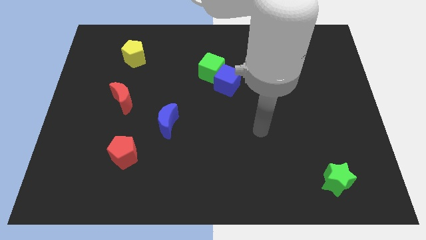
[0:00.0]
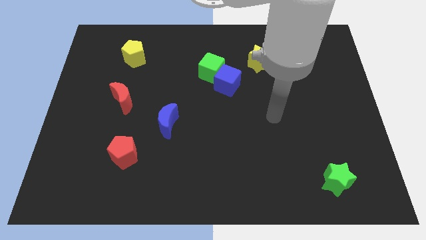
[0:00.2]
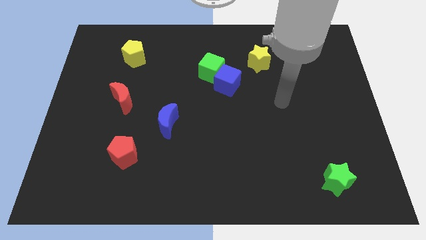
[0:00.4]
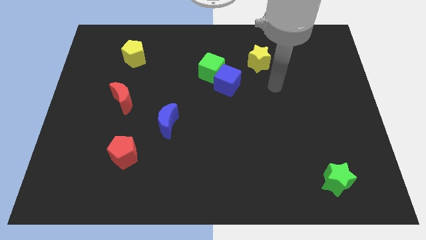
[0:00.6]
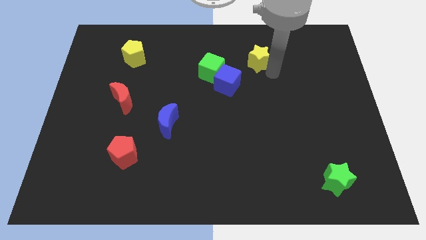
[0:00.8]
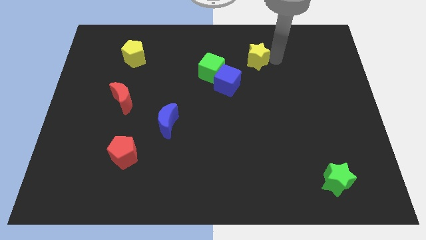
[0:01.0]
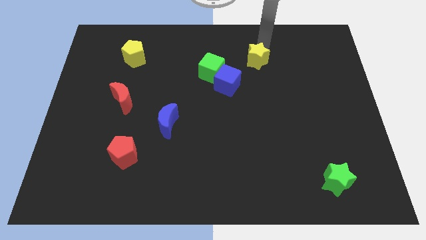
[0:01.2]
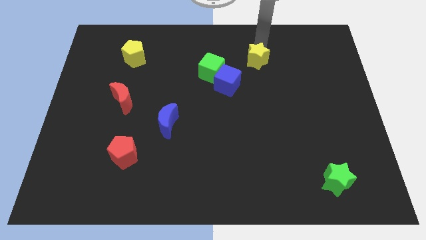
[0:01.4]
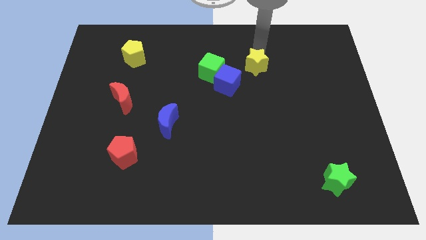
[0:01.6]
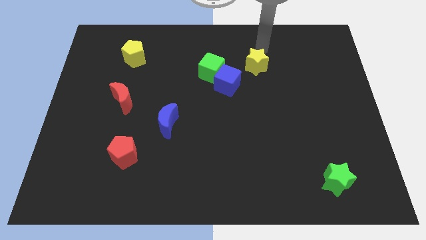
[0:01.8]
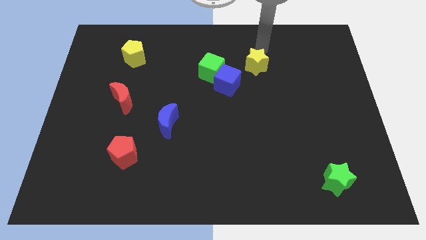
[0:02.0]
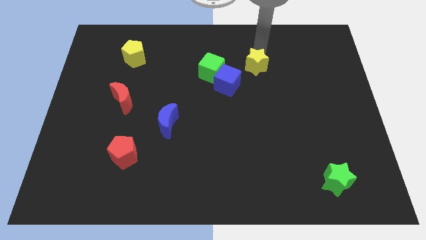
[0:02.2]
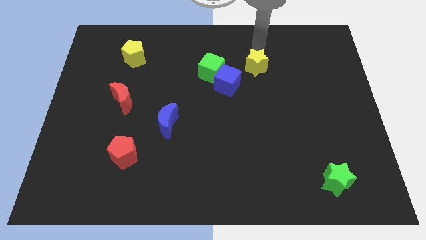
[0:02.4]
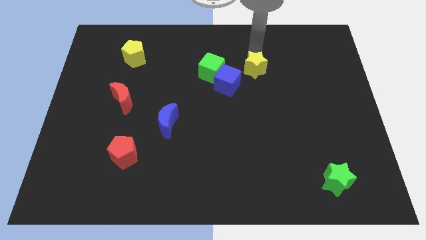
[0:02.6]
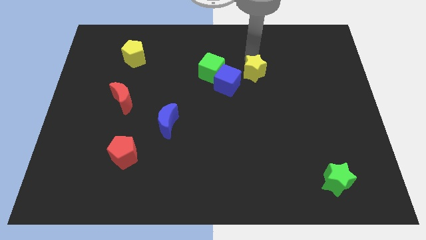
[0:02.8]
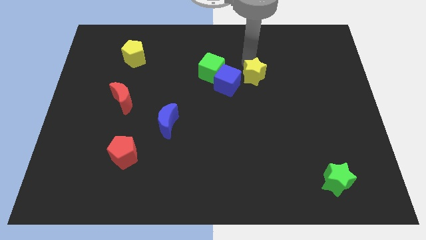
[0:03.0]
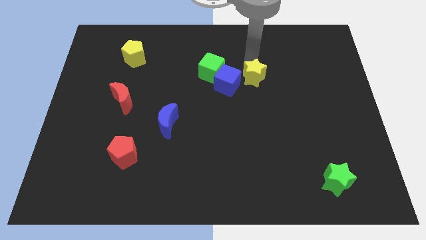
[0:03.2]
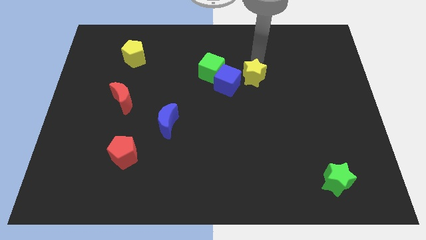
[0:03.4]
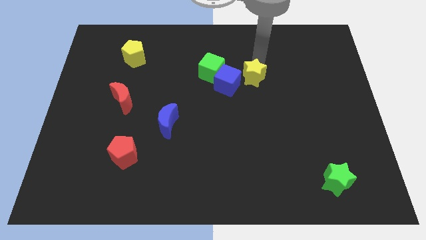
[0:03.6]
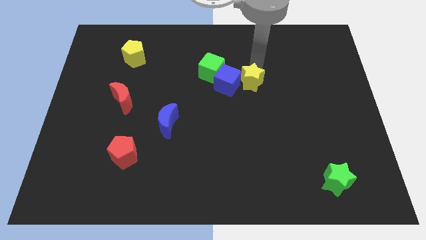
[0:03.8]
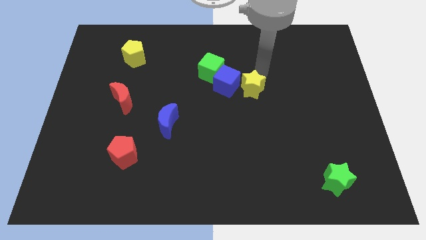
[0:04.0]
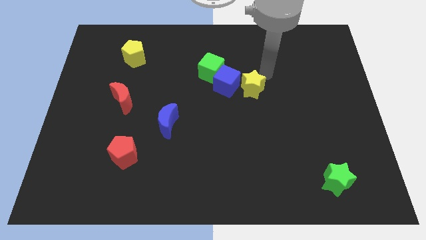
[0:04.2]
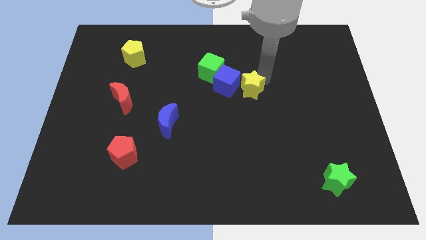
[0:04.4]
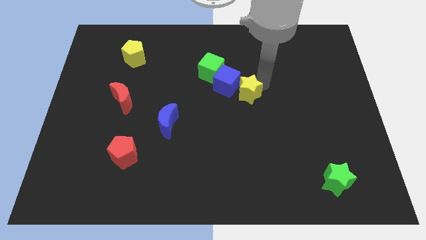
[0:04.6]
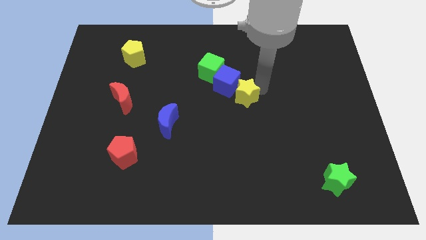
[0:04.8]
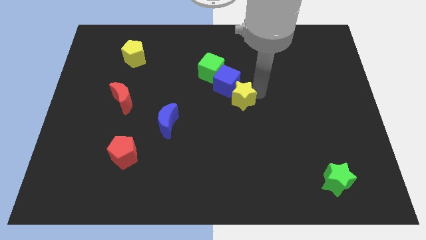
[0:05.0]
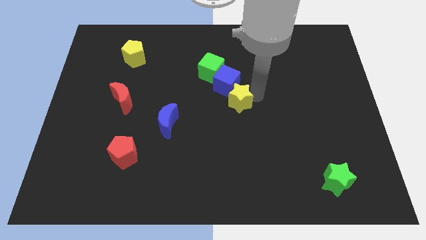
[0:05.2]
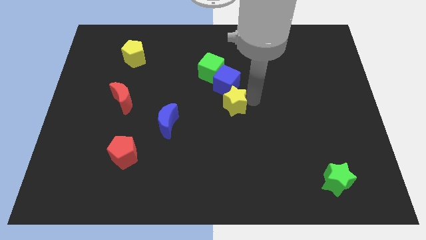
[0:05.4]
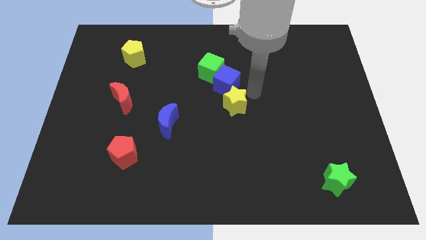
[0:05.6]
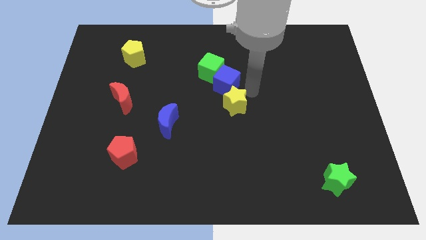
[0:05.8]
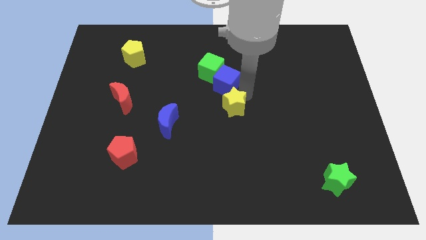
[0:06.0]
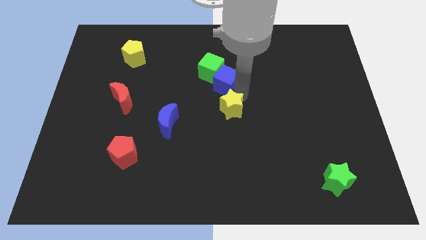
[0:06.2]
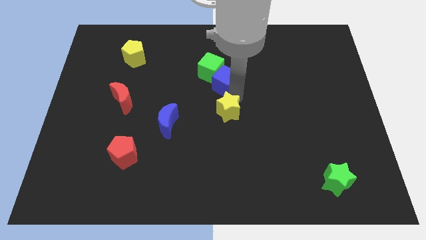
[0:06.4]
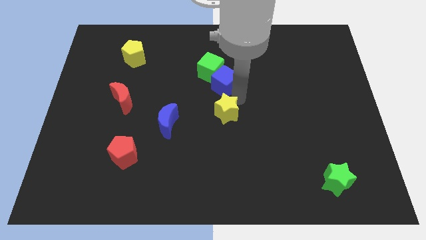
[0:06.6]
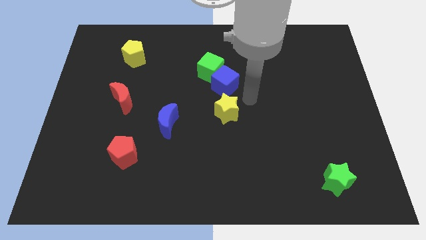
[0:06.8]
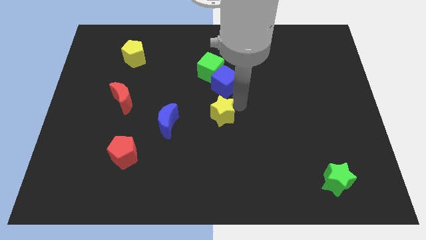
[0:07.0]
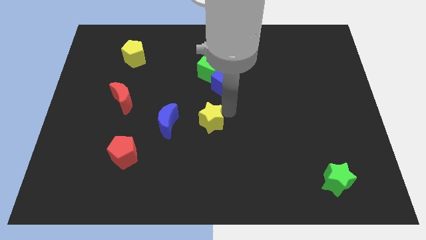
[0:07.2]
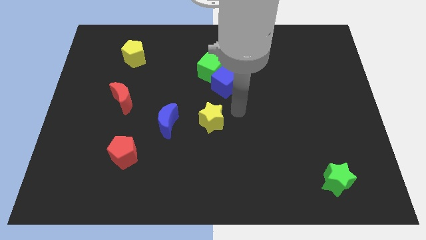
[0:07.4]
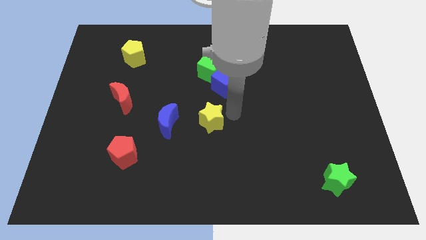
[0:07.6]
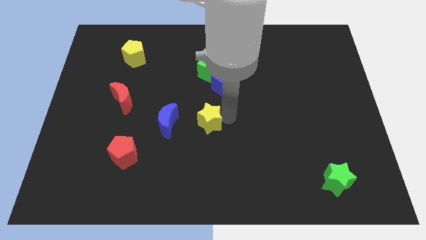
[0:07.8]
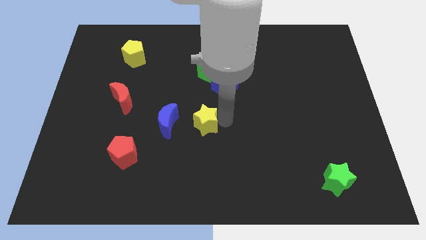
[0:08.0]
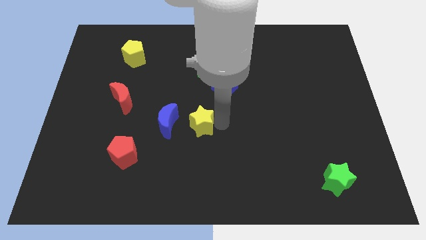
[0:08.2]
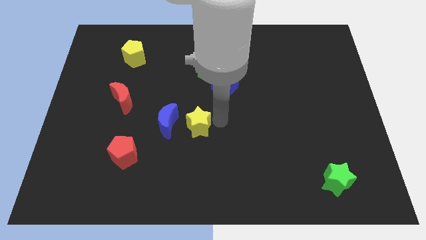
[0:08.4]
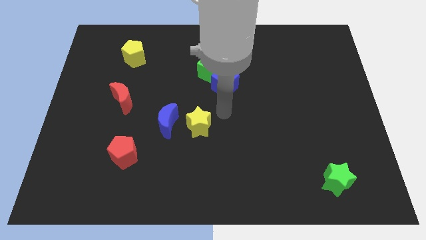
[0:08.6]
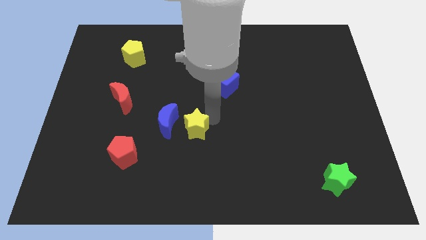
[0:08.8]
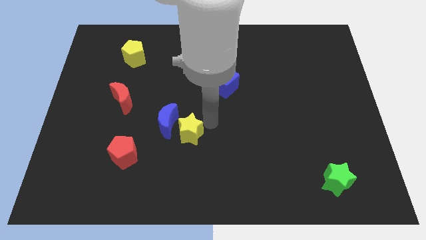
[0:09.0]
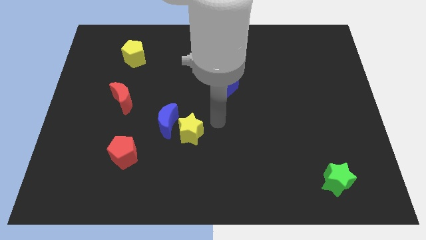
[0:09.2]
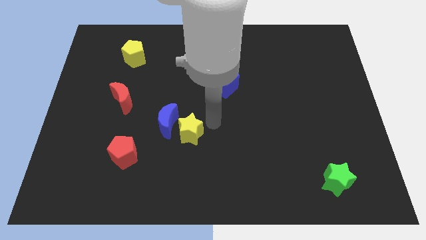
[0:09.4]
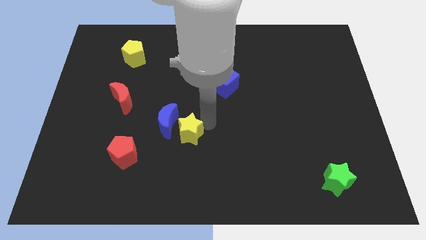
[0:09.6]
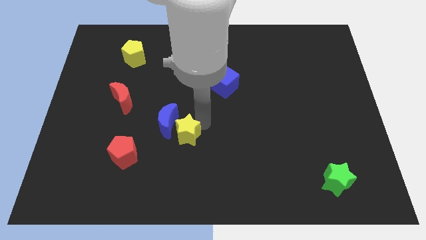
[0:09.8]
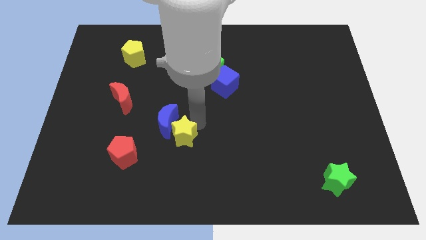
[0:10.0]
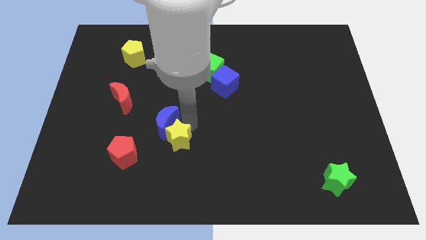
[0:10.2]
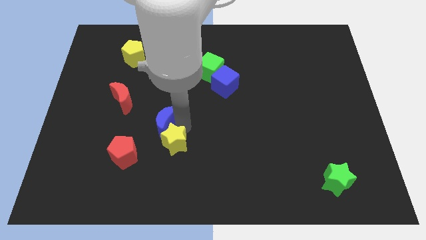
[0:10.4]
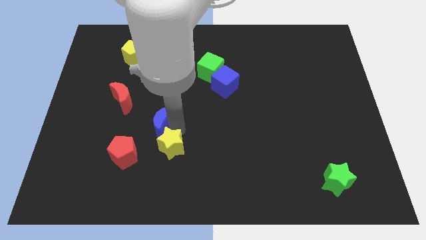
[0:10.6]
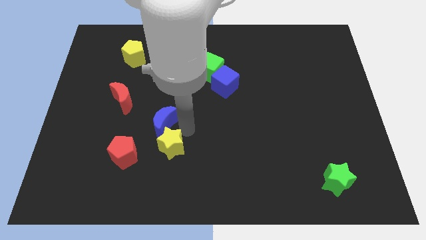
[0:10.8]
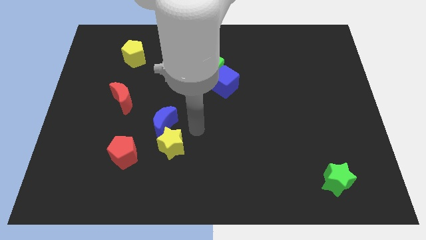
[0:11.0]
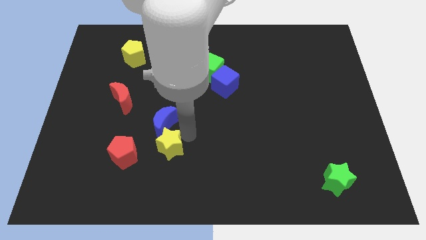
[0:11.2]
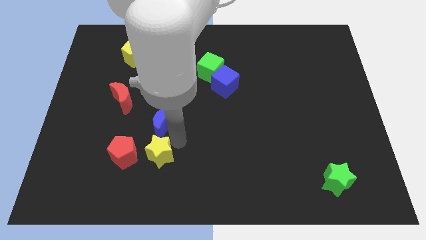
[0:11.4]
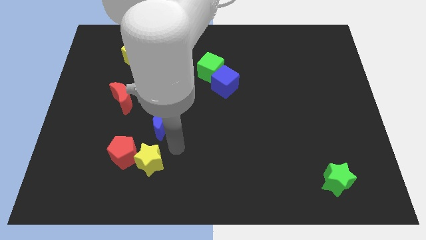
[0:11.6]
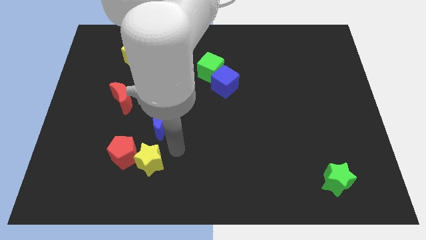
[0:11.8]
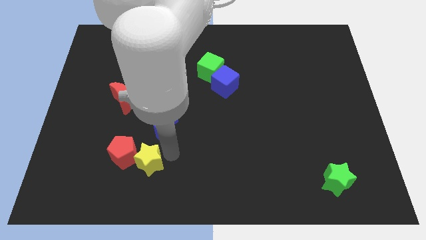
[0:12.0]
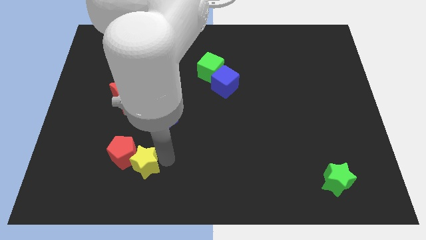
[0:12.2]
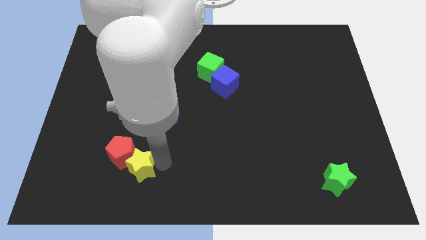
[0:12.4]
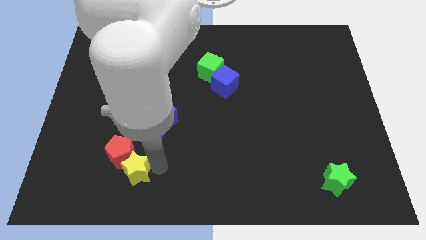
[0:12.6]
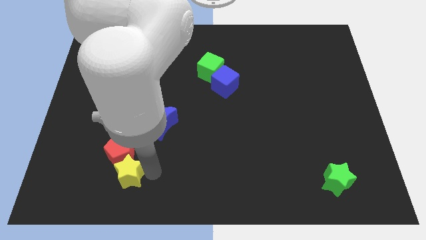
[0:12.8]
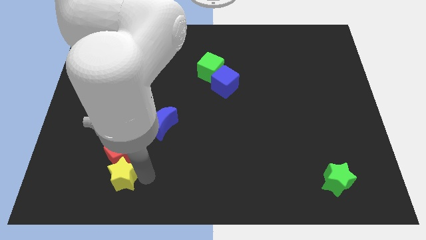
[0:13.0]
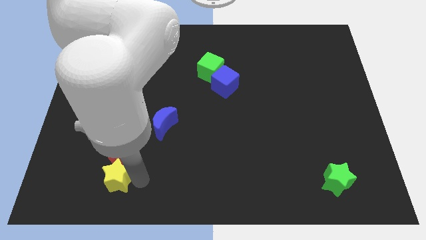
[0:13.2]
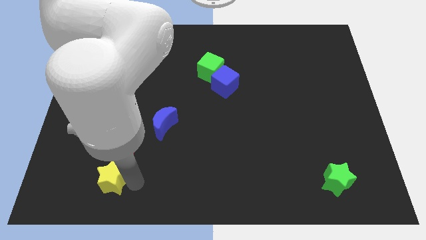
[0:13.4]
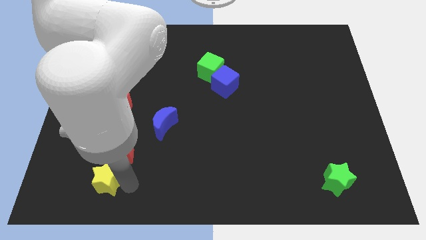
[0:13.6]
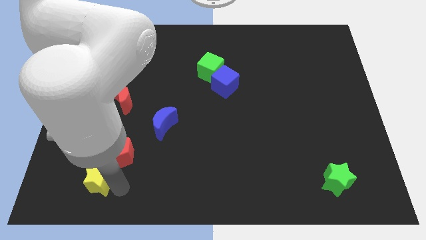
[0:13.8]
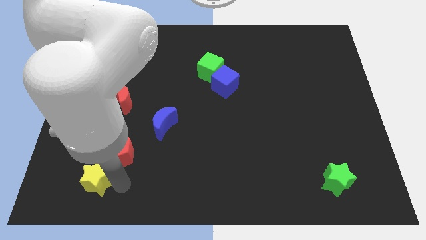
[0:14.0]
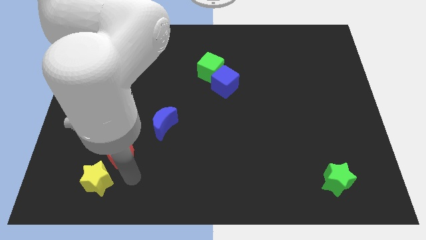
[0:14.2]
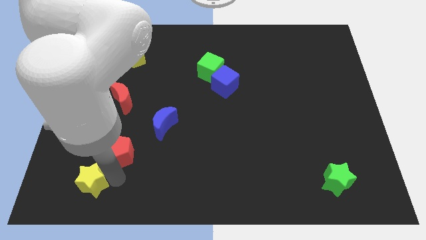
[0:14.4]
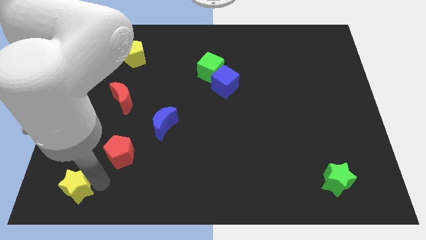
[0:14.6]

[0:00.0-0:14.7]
put the yellow star to the bottom left corner
